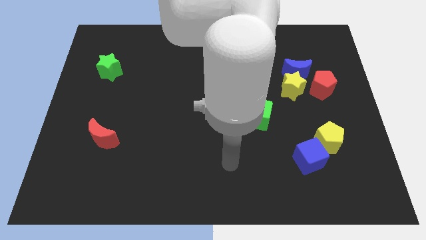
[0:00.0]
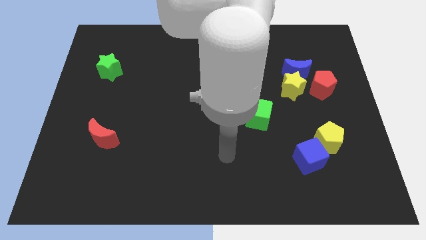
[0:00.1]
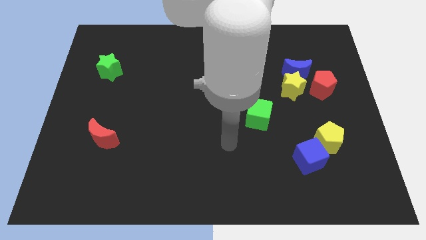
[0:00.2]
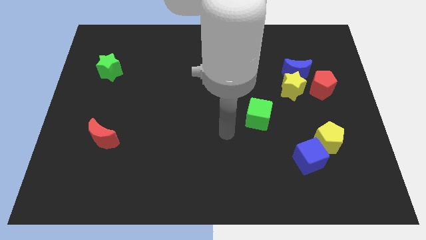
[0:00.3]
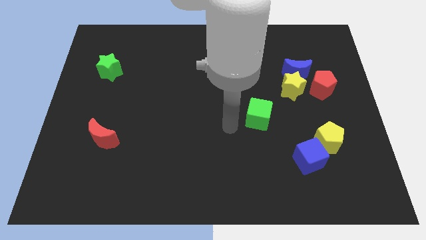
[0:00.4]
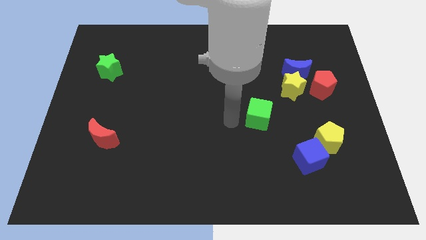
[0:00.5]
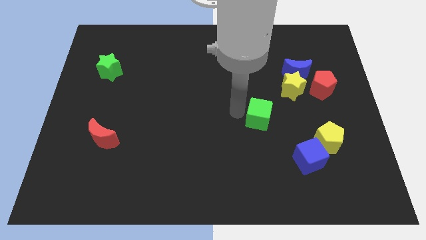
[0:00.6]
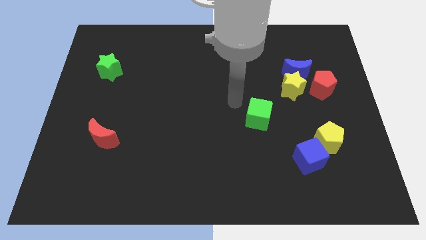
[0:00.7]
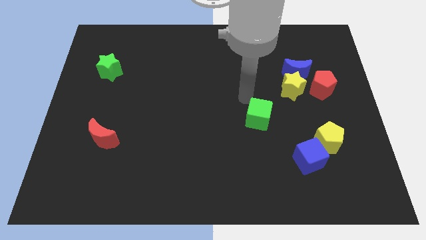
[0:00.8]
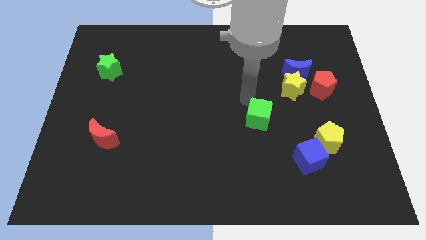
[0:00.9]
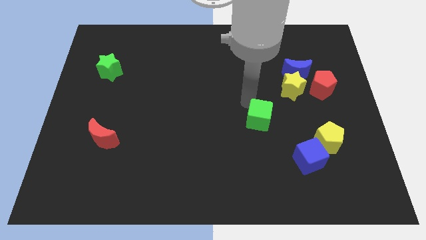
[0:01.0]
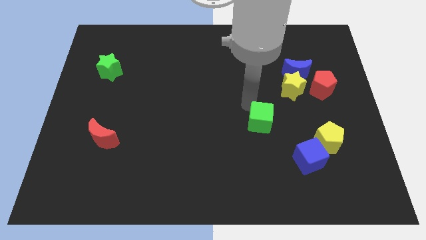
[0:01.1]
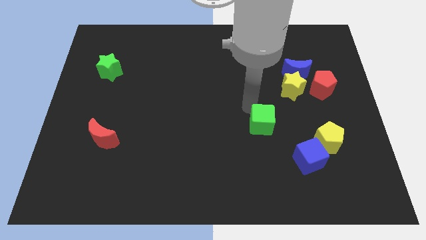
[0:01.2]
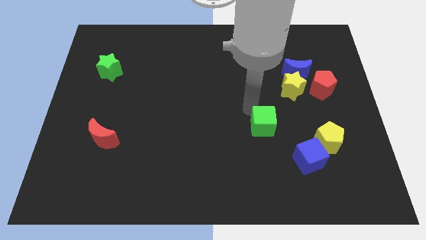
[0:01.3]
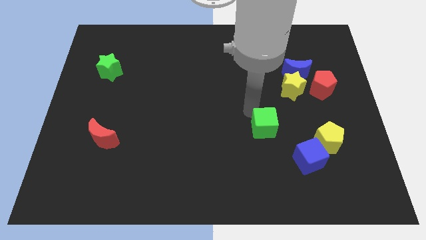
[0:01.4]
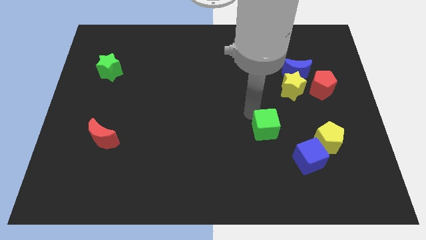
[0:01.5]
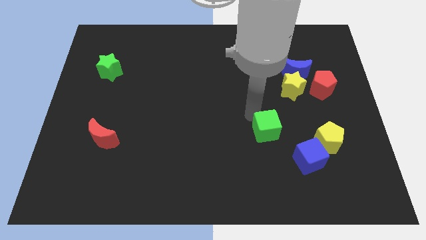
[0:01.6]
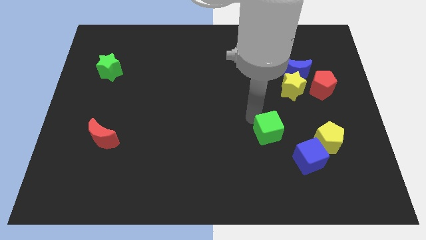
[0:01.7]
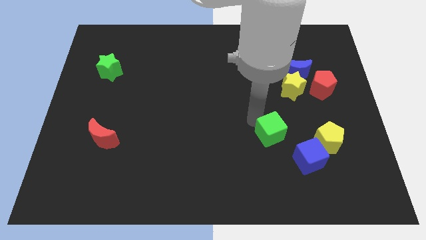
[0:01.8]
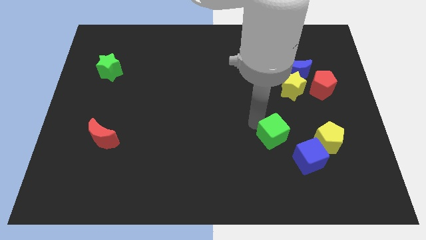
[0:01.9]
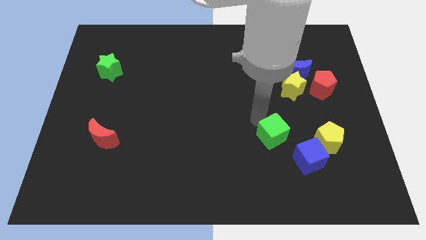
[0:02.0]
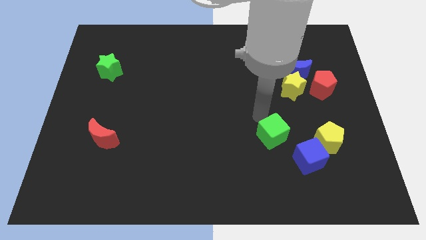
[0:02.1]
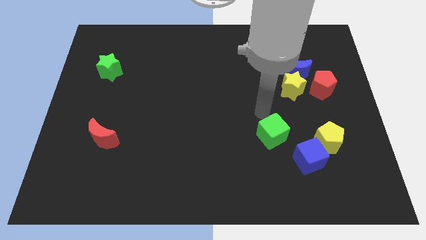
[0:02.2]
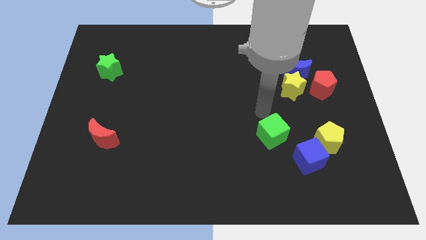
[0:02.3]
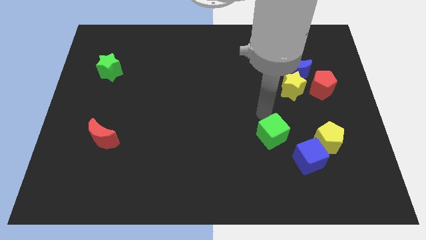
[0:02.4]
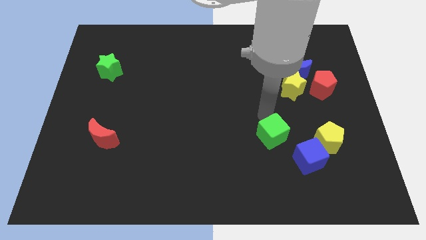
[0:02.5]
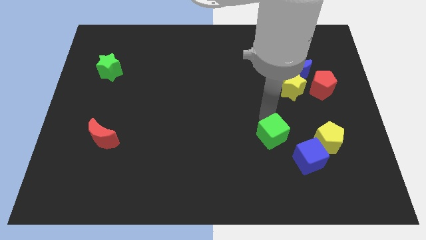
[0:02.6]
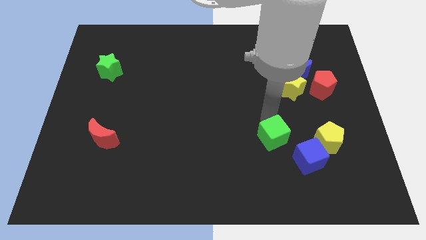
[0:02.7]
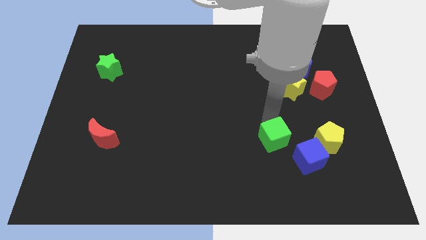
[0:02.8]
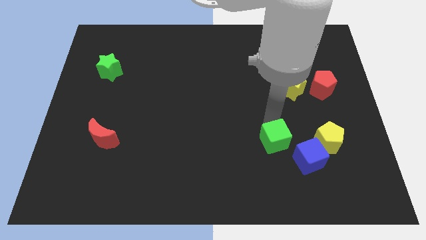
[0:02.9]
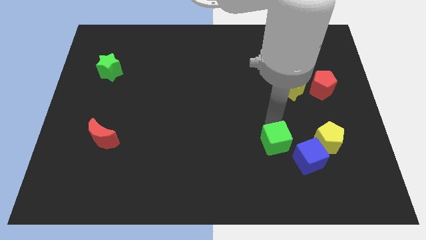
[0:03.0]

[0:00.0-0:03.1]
slightly move the green cube downwards and to the right

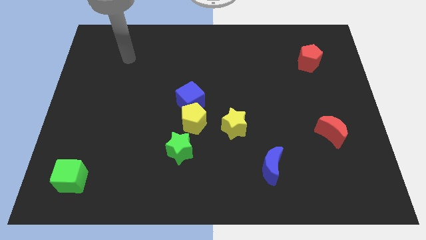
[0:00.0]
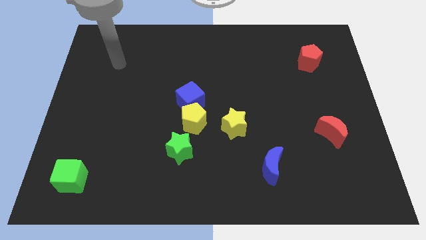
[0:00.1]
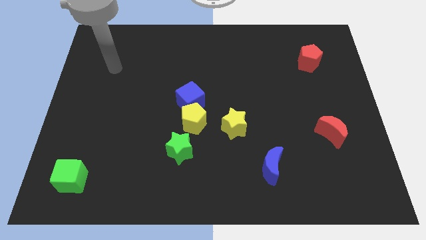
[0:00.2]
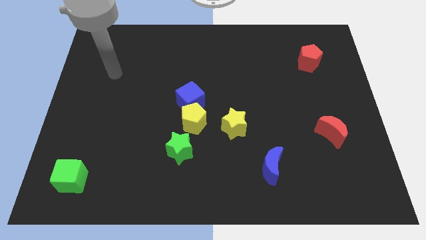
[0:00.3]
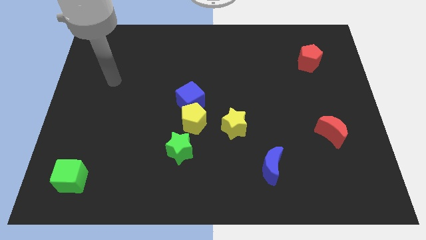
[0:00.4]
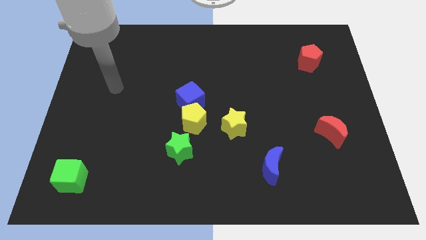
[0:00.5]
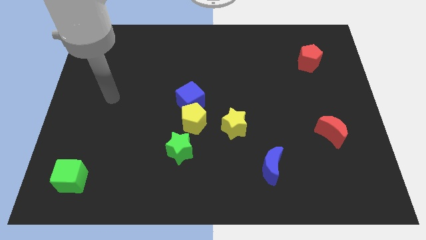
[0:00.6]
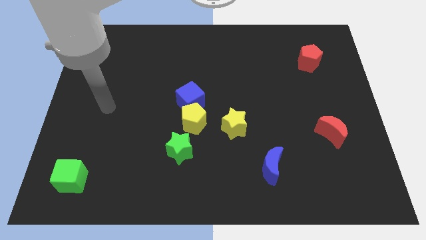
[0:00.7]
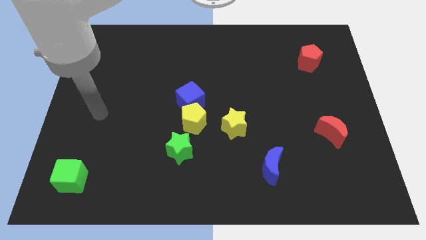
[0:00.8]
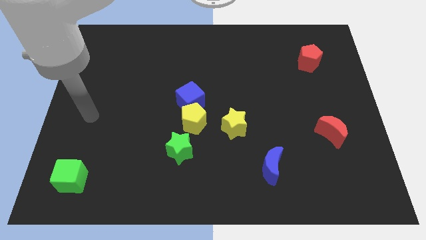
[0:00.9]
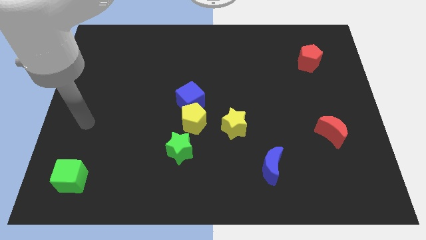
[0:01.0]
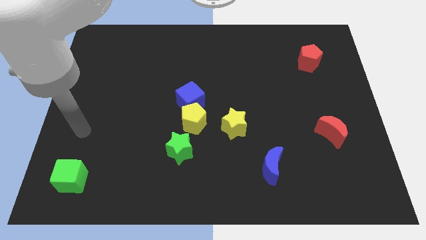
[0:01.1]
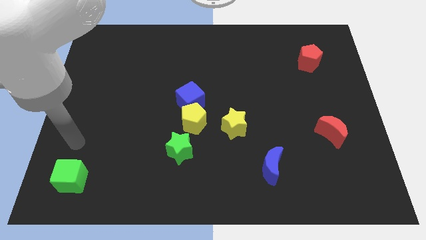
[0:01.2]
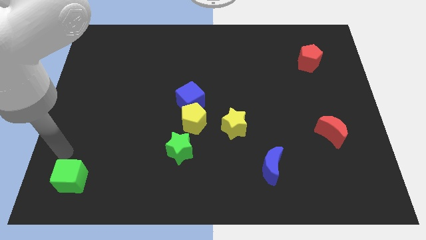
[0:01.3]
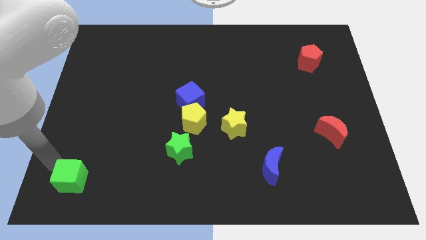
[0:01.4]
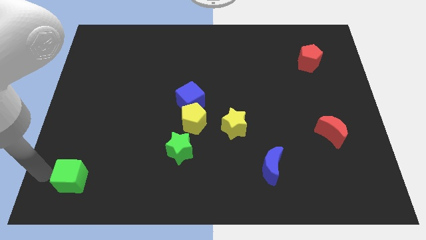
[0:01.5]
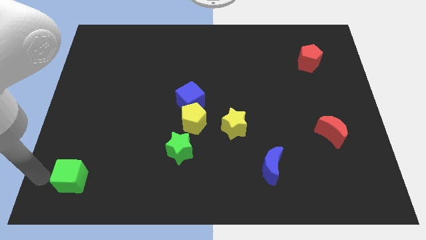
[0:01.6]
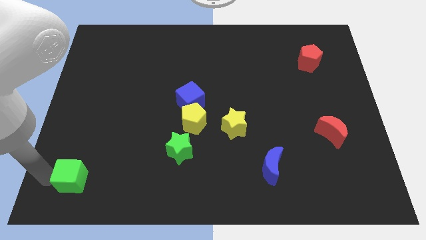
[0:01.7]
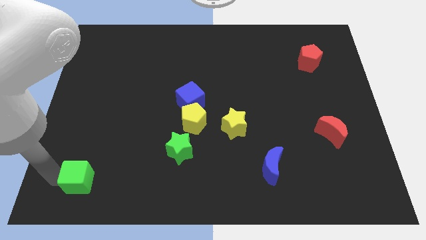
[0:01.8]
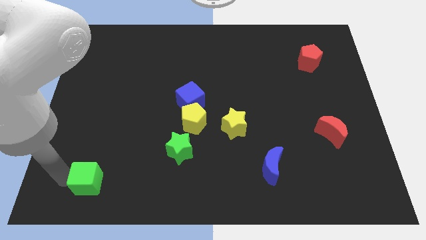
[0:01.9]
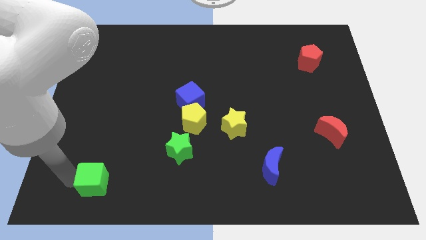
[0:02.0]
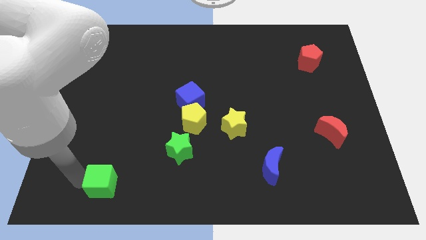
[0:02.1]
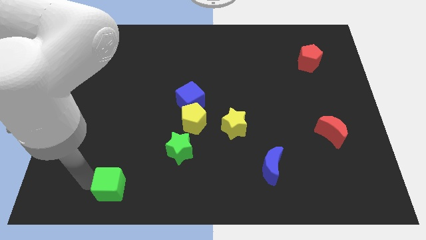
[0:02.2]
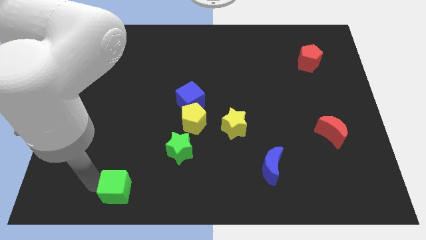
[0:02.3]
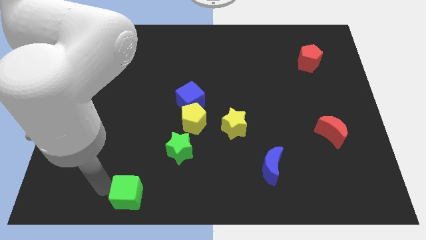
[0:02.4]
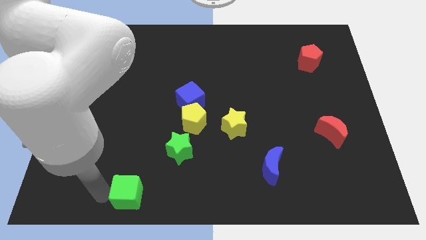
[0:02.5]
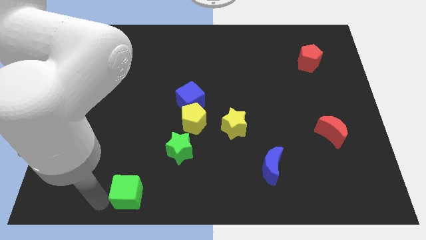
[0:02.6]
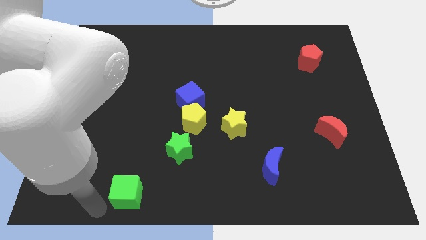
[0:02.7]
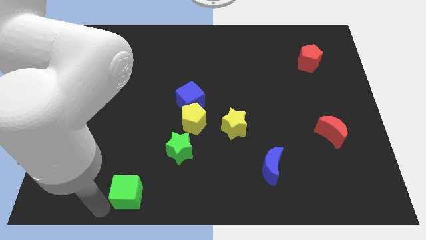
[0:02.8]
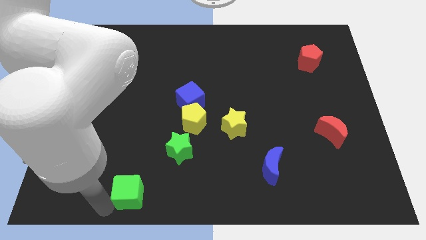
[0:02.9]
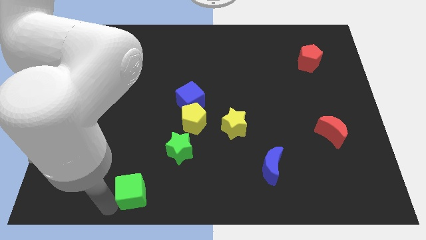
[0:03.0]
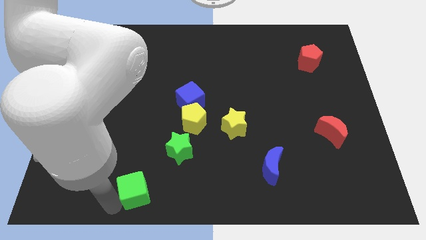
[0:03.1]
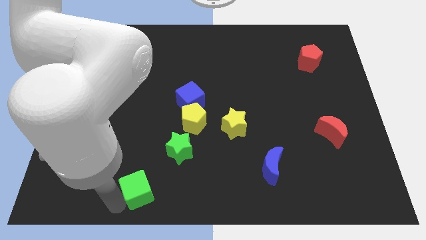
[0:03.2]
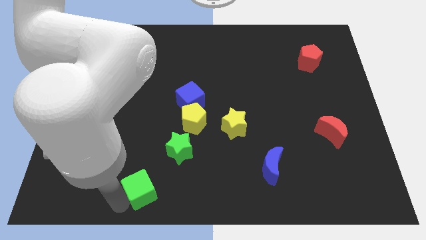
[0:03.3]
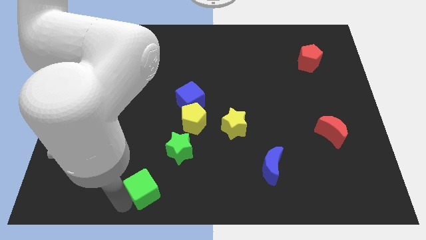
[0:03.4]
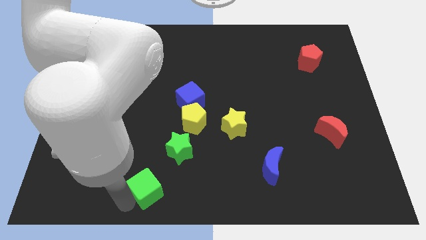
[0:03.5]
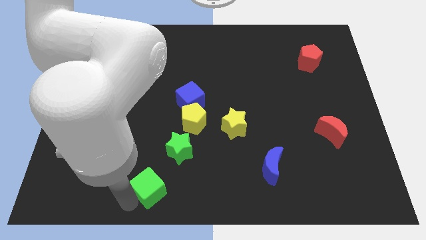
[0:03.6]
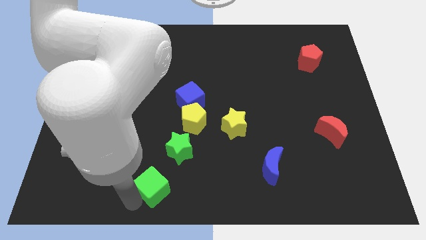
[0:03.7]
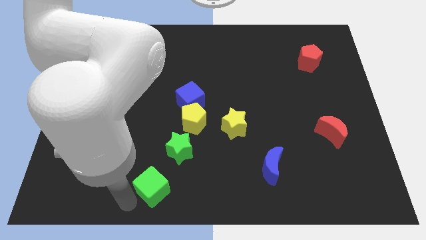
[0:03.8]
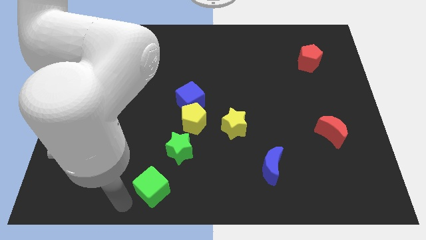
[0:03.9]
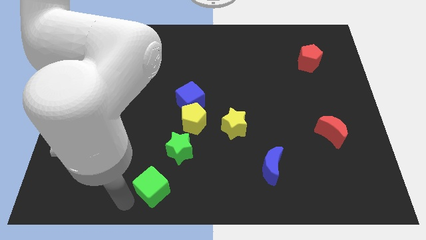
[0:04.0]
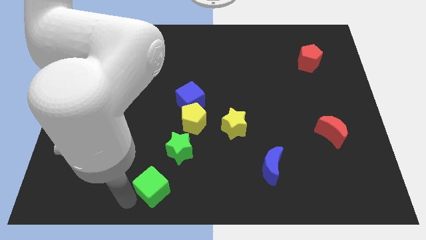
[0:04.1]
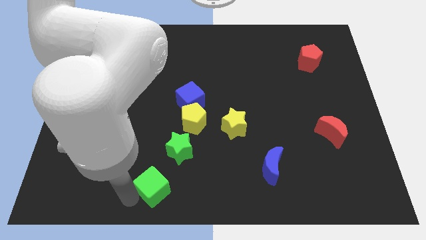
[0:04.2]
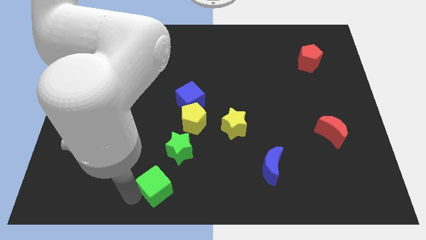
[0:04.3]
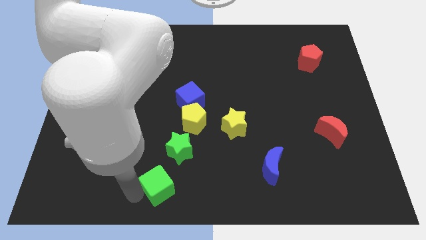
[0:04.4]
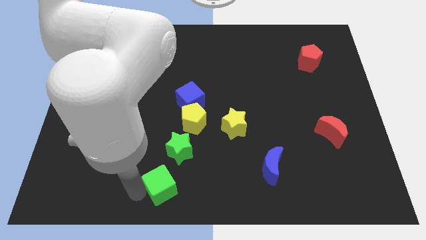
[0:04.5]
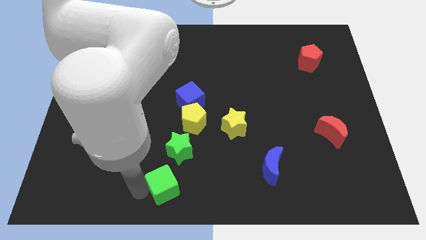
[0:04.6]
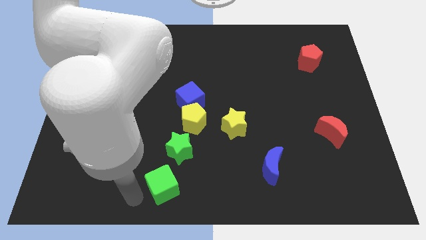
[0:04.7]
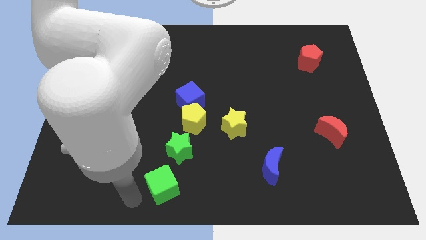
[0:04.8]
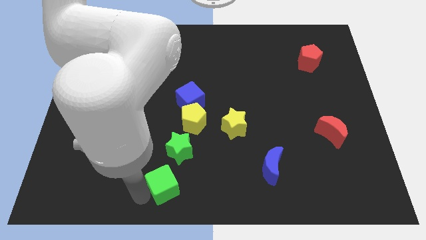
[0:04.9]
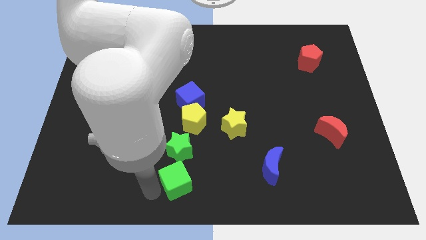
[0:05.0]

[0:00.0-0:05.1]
push the green cube right

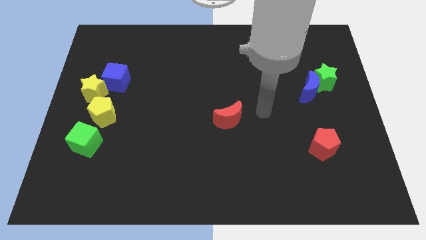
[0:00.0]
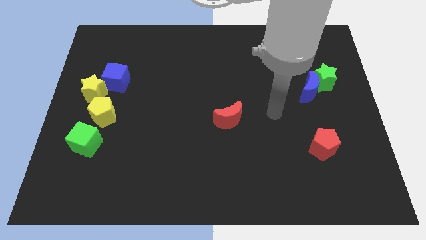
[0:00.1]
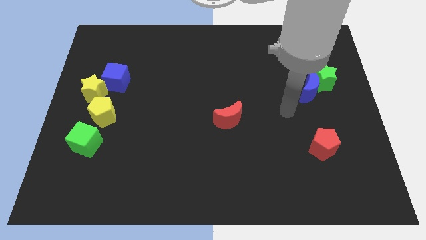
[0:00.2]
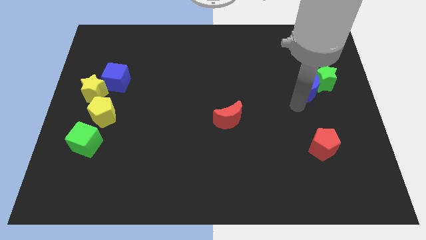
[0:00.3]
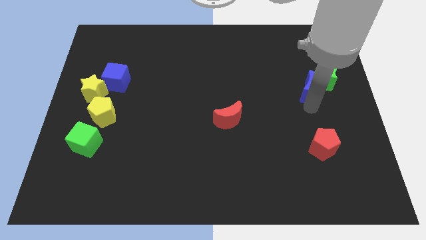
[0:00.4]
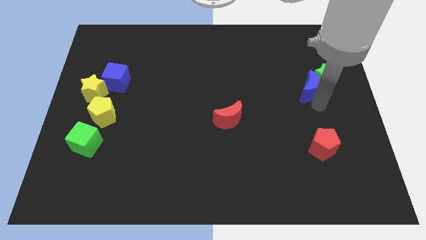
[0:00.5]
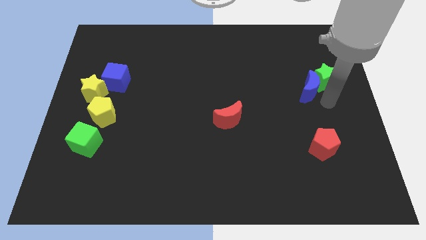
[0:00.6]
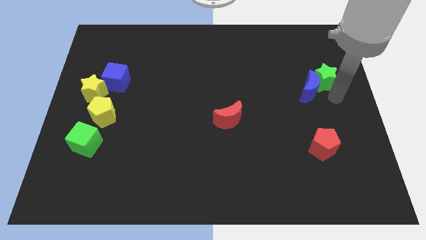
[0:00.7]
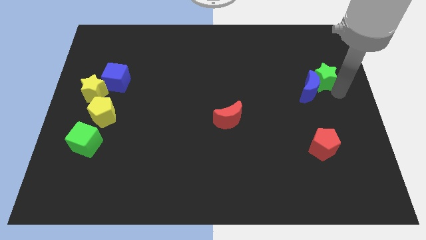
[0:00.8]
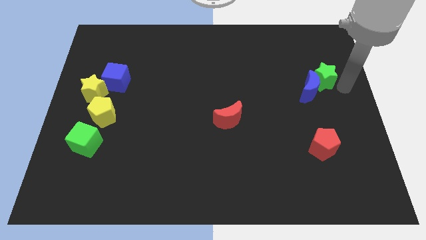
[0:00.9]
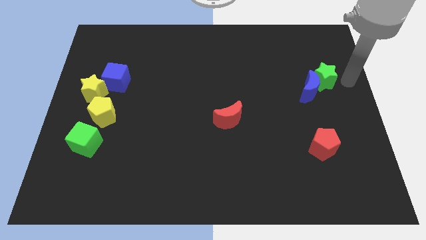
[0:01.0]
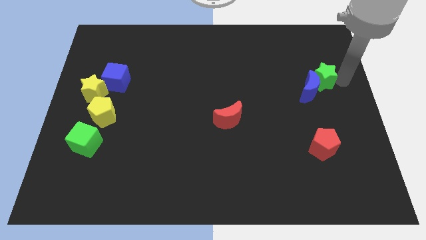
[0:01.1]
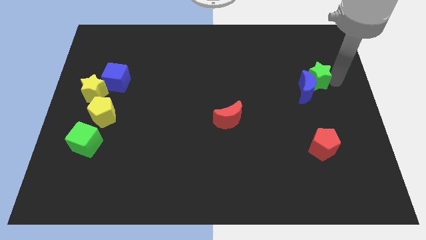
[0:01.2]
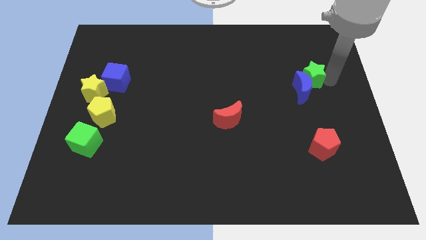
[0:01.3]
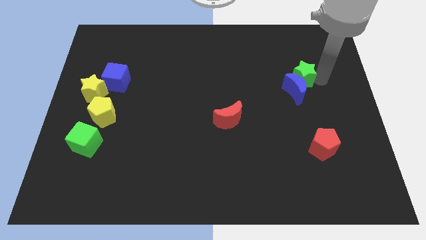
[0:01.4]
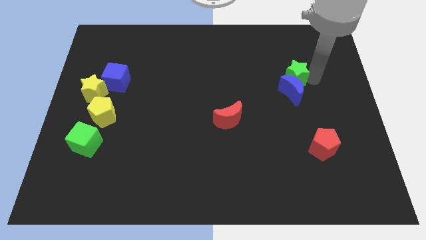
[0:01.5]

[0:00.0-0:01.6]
move the green star a bit left
